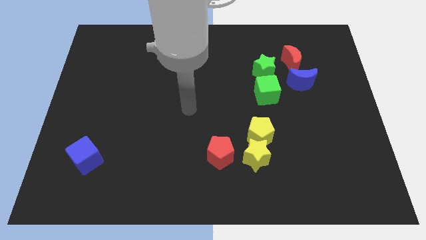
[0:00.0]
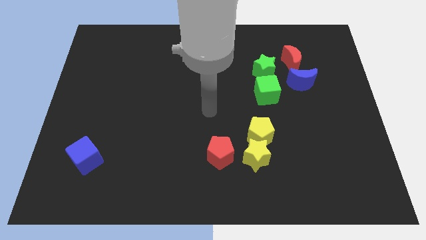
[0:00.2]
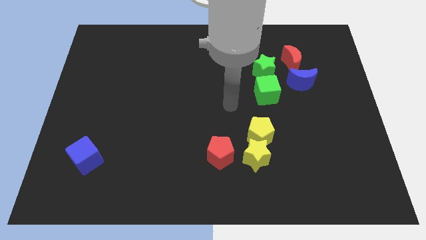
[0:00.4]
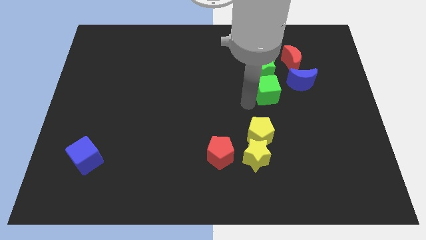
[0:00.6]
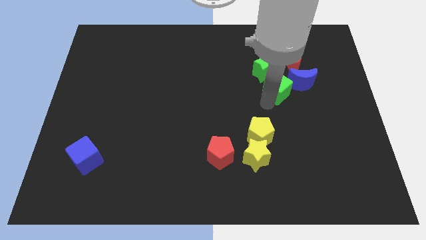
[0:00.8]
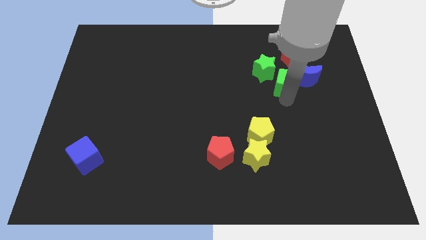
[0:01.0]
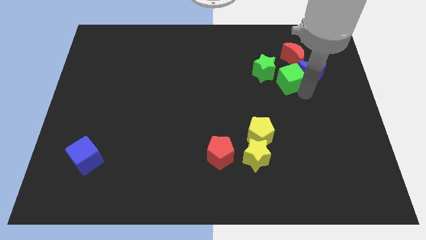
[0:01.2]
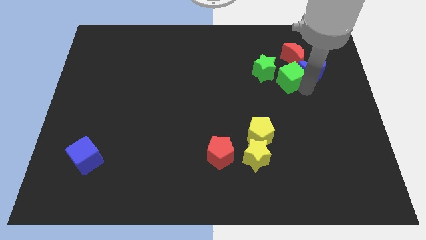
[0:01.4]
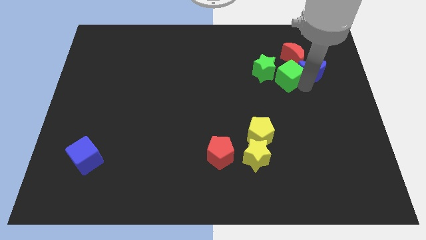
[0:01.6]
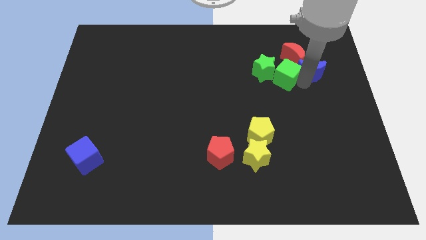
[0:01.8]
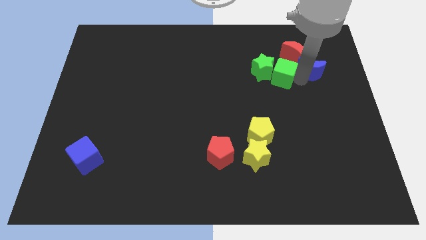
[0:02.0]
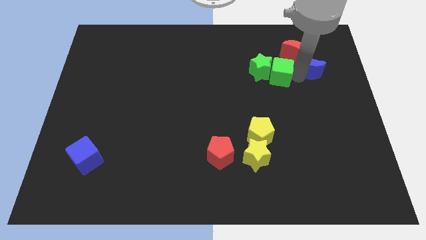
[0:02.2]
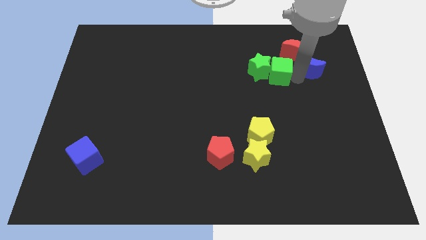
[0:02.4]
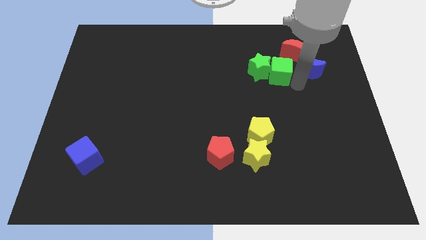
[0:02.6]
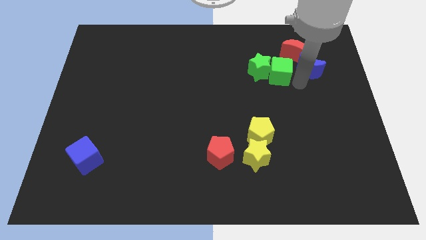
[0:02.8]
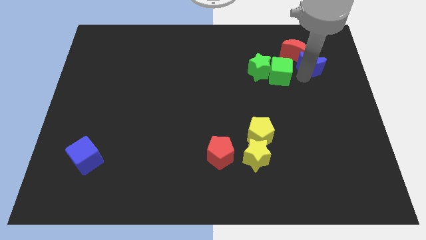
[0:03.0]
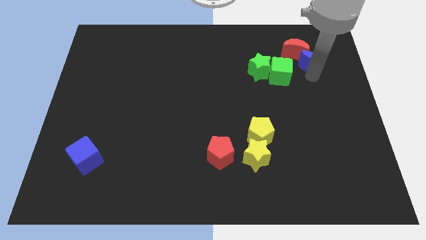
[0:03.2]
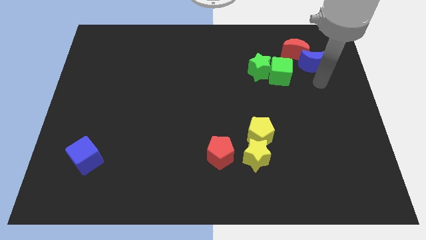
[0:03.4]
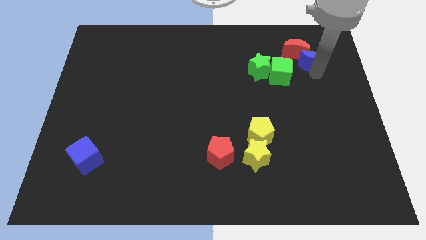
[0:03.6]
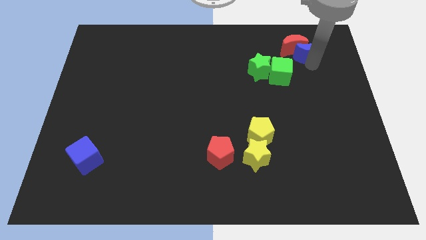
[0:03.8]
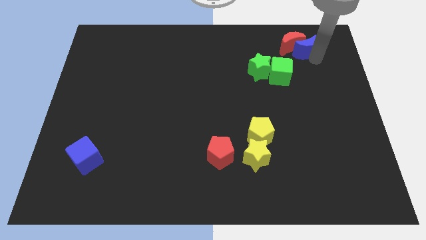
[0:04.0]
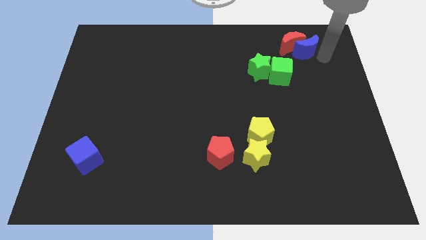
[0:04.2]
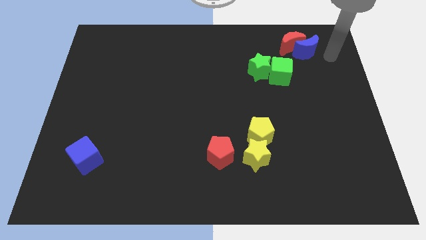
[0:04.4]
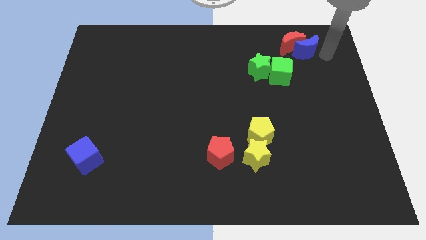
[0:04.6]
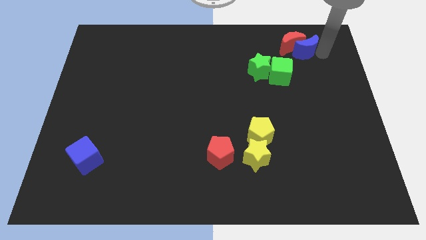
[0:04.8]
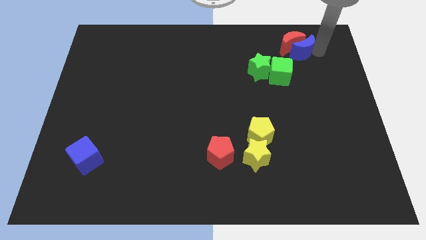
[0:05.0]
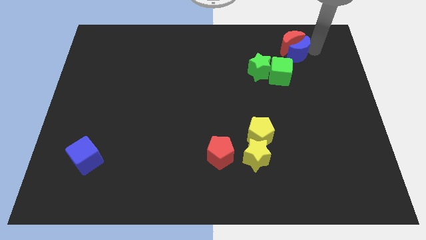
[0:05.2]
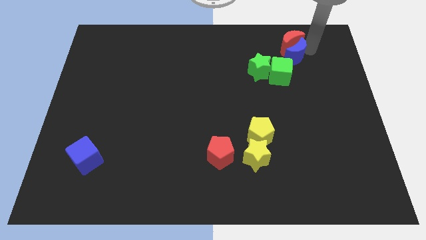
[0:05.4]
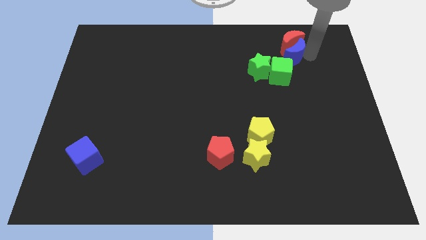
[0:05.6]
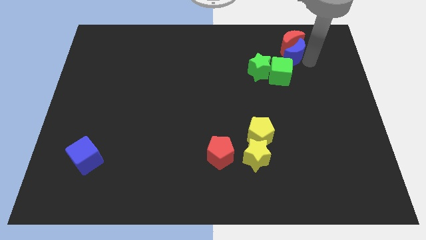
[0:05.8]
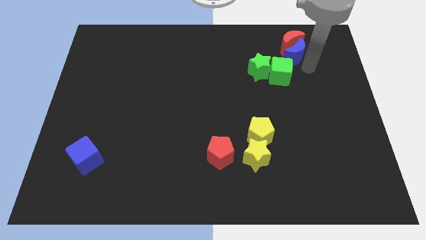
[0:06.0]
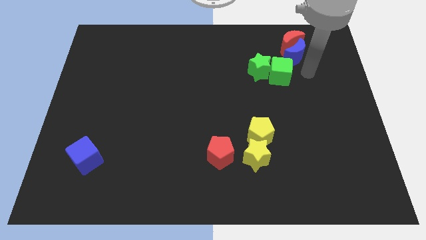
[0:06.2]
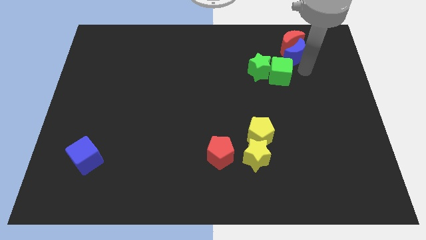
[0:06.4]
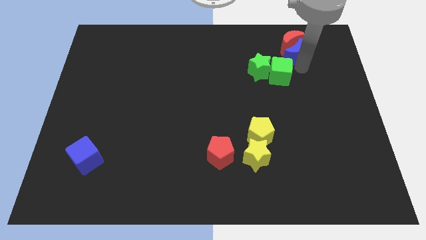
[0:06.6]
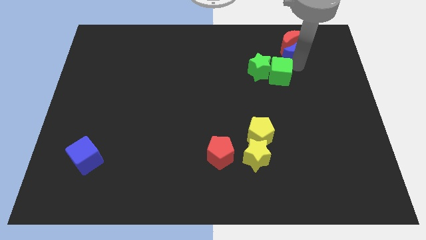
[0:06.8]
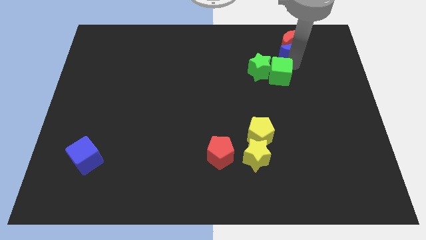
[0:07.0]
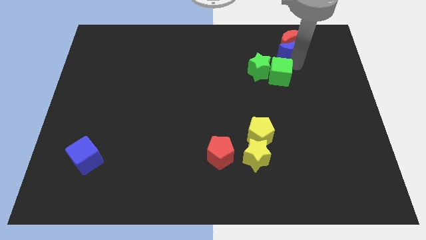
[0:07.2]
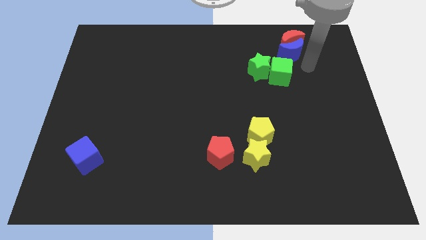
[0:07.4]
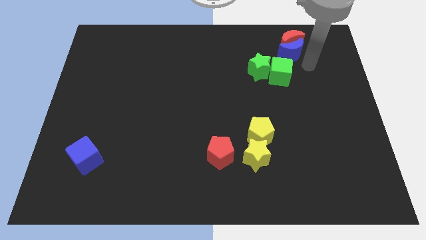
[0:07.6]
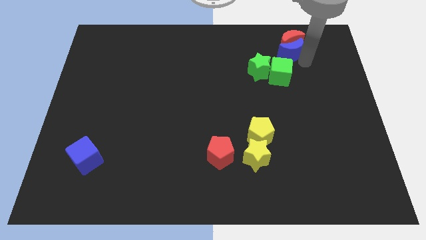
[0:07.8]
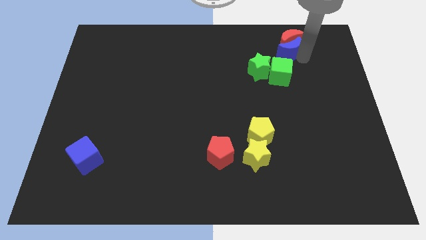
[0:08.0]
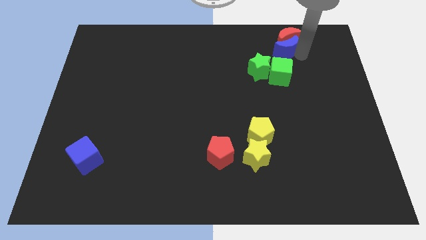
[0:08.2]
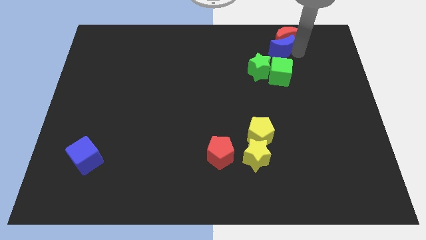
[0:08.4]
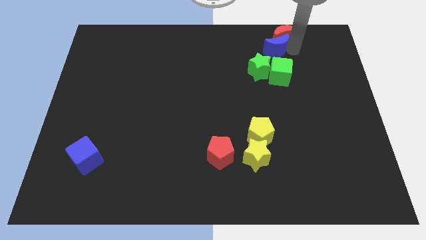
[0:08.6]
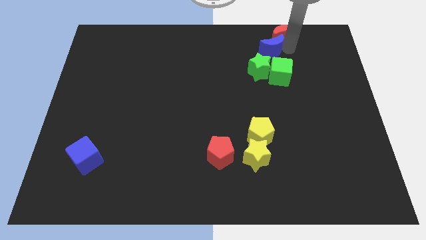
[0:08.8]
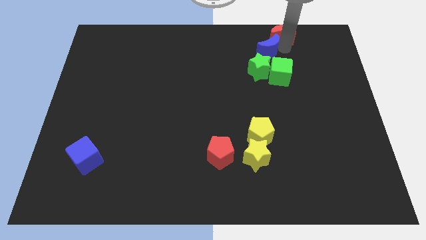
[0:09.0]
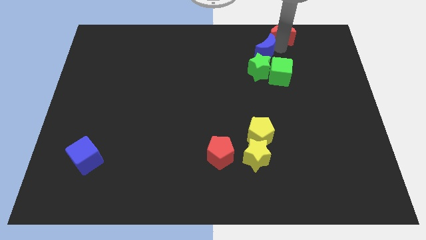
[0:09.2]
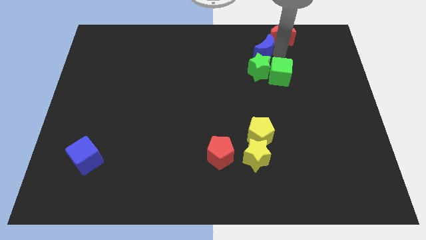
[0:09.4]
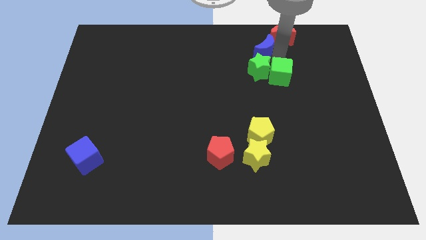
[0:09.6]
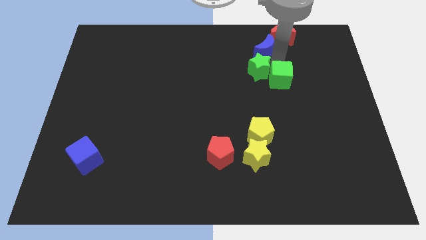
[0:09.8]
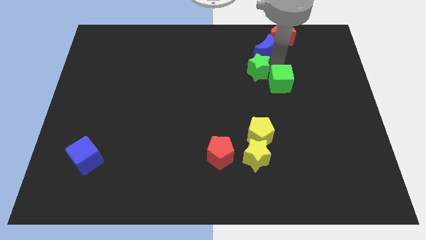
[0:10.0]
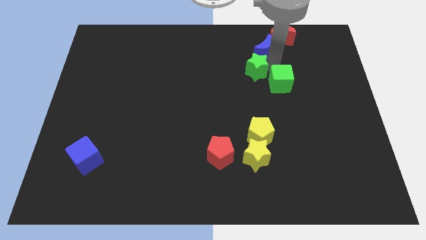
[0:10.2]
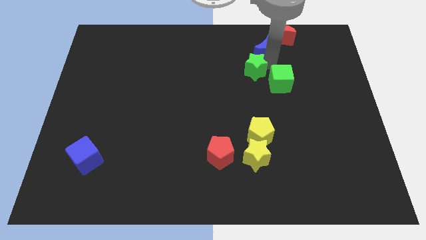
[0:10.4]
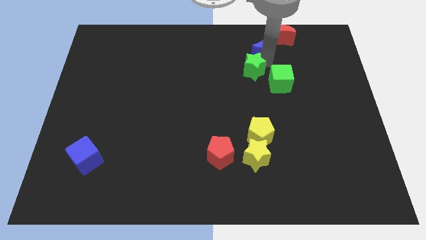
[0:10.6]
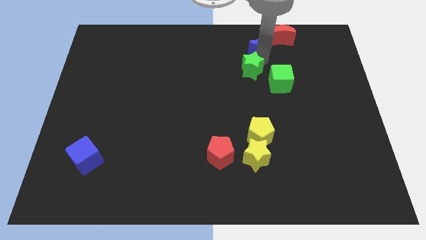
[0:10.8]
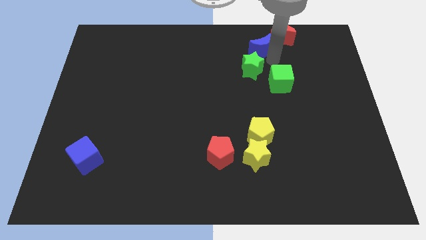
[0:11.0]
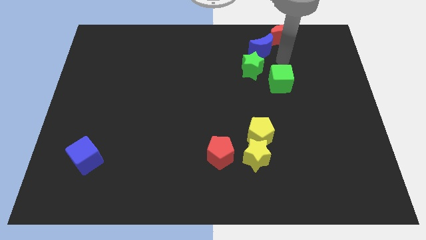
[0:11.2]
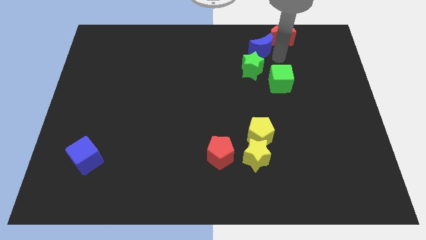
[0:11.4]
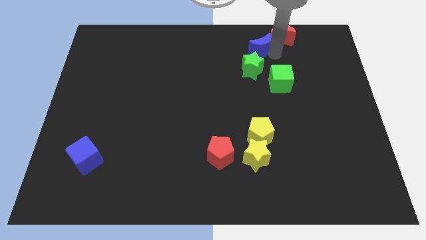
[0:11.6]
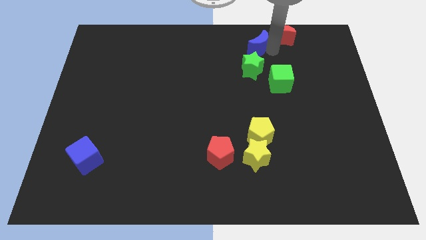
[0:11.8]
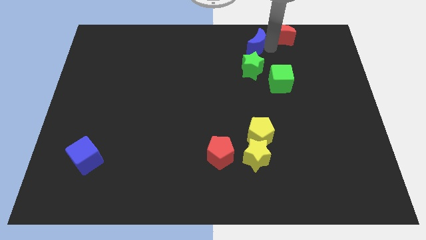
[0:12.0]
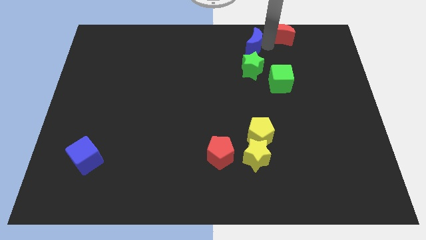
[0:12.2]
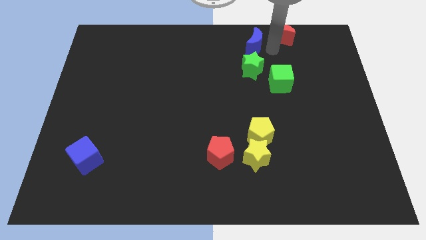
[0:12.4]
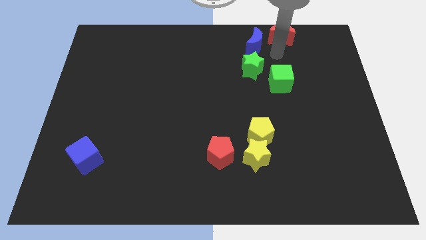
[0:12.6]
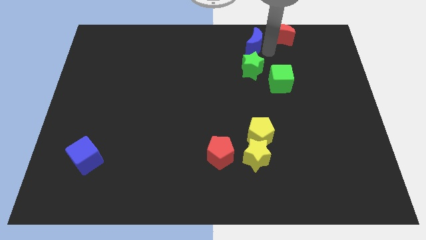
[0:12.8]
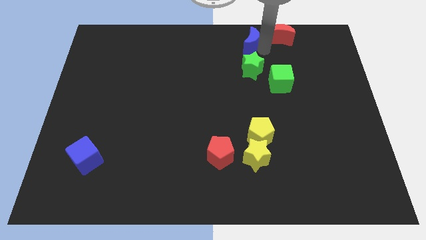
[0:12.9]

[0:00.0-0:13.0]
push the blue moon to the top side

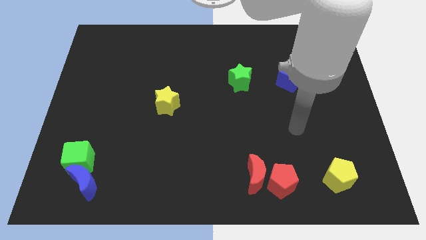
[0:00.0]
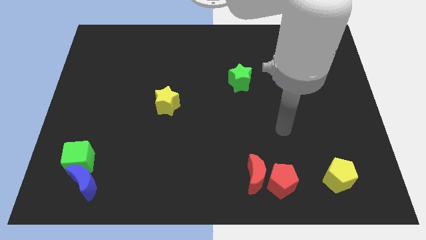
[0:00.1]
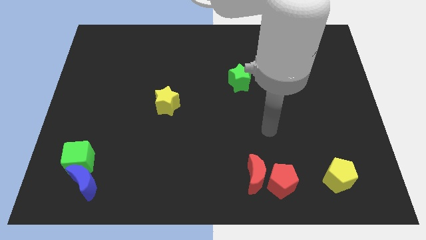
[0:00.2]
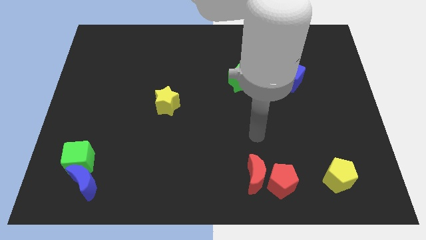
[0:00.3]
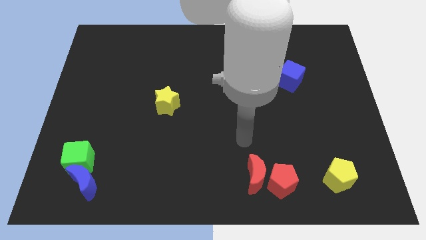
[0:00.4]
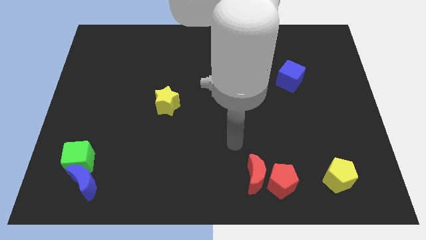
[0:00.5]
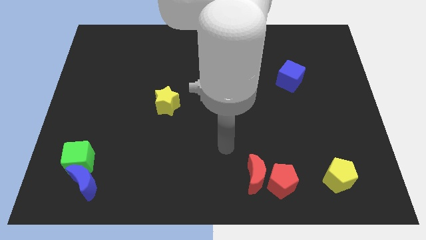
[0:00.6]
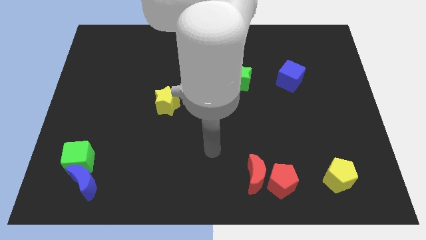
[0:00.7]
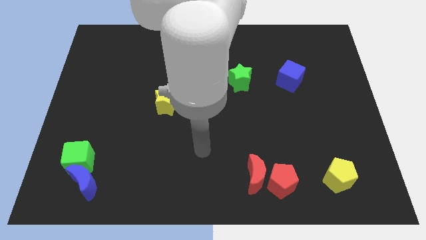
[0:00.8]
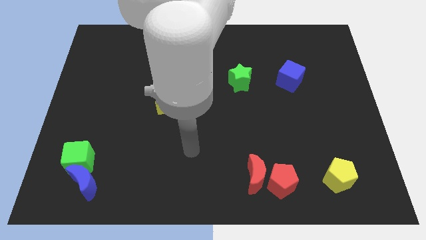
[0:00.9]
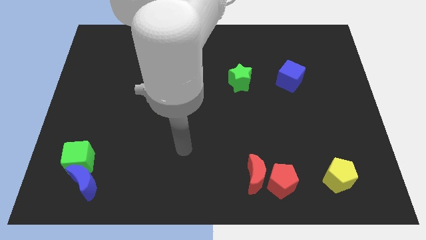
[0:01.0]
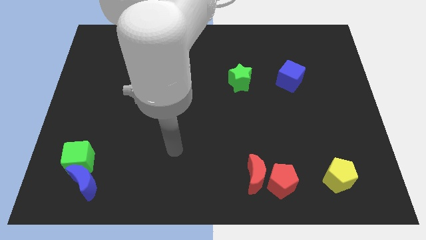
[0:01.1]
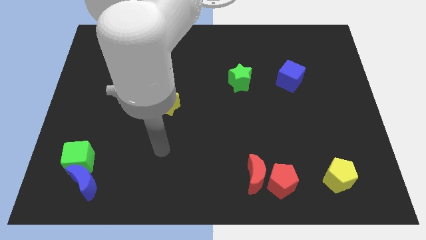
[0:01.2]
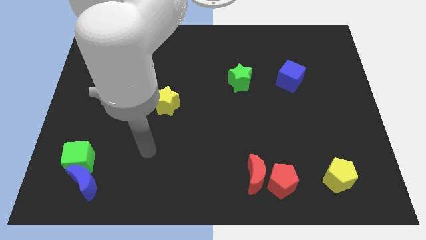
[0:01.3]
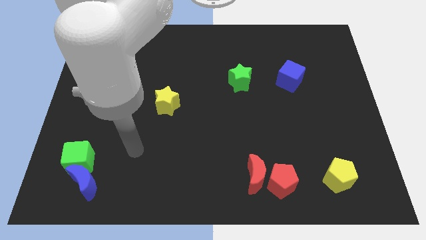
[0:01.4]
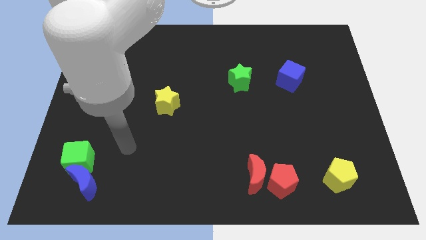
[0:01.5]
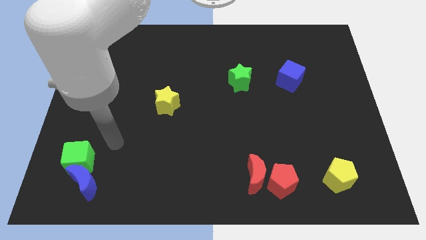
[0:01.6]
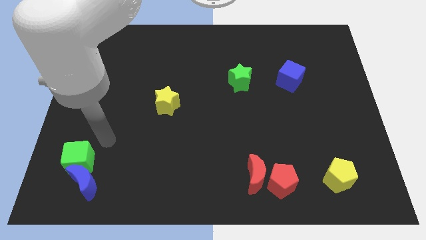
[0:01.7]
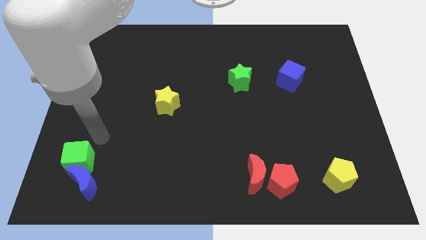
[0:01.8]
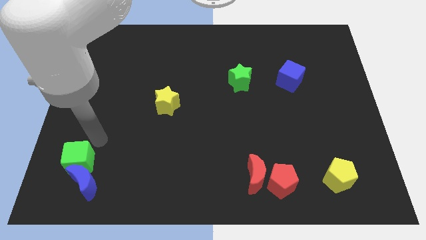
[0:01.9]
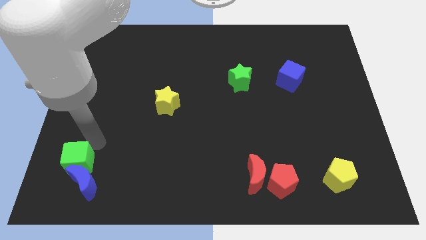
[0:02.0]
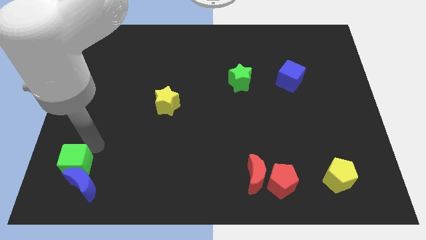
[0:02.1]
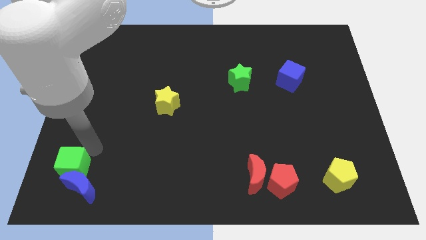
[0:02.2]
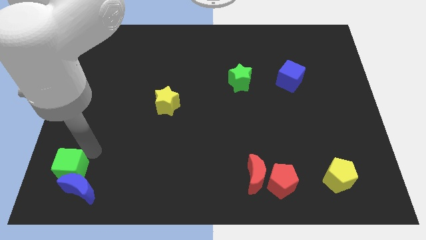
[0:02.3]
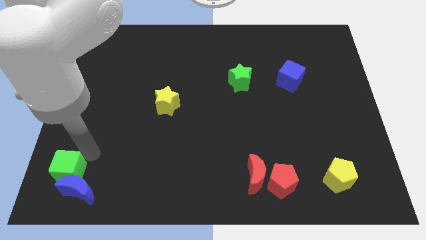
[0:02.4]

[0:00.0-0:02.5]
push the green cube to the bottom left
